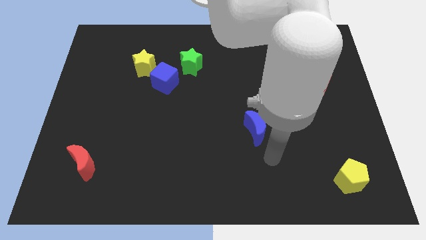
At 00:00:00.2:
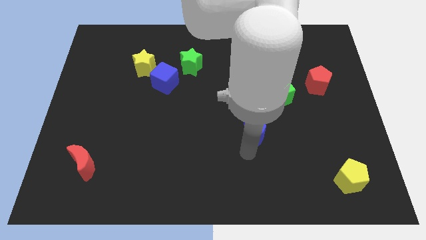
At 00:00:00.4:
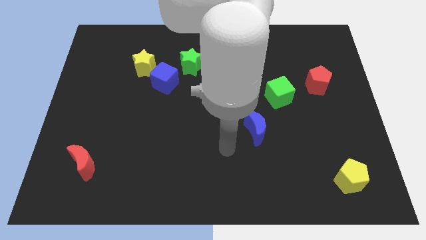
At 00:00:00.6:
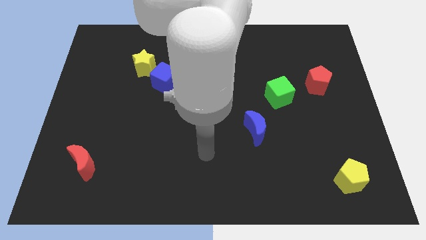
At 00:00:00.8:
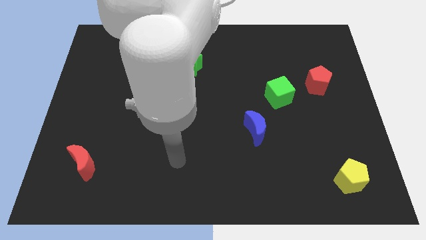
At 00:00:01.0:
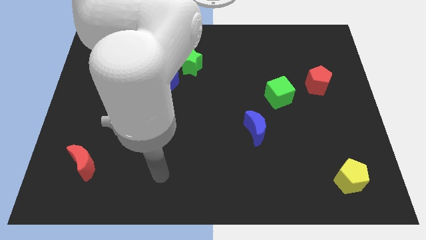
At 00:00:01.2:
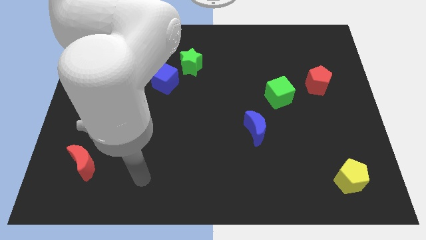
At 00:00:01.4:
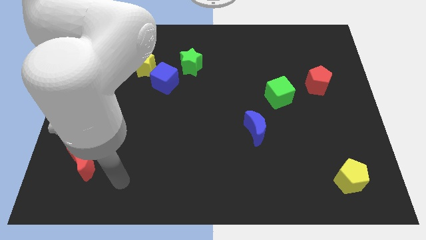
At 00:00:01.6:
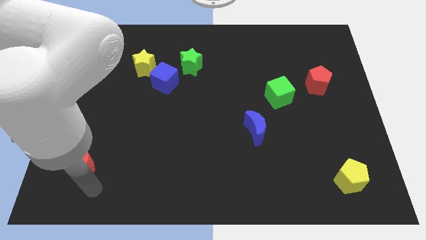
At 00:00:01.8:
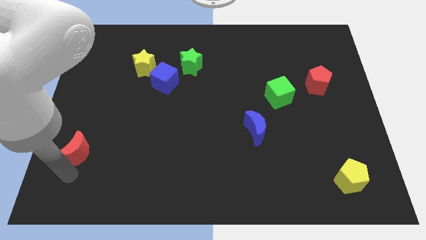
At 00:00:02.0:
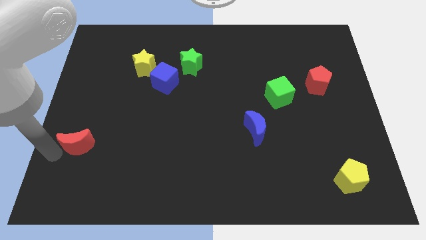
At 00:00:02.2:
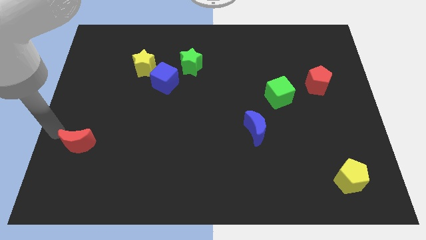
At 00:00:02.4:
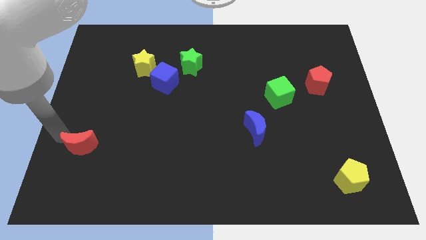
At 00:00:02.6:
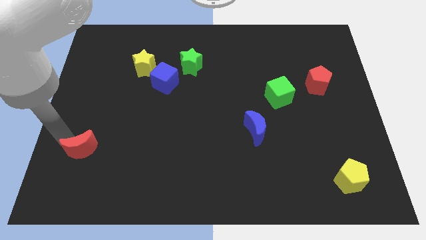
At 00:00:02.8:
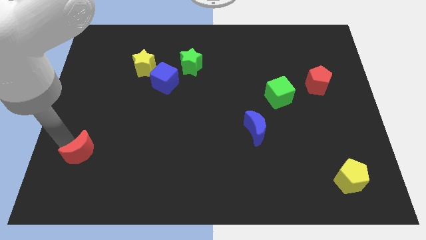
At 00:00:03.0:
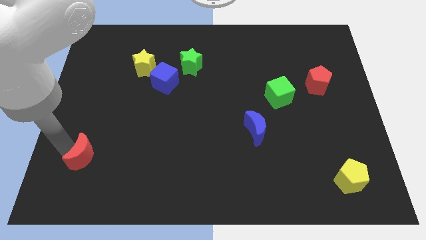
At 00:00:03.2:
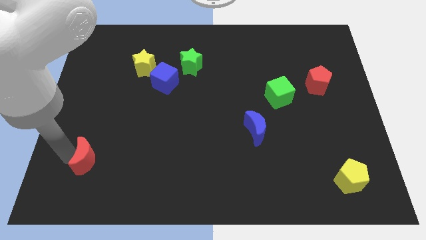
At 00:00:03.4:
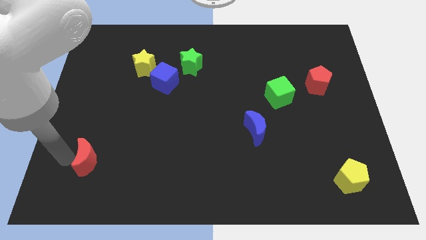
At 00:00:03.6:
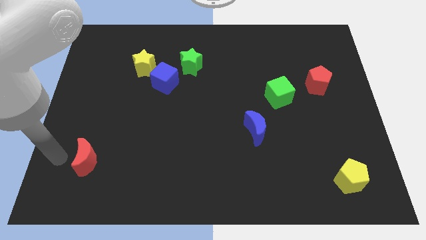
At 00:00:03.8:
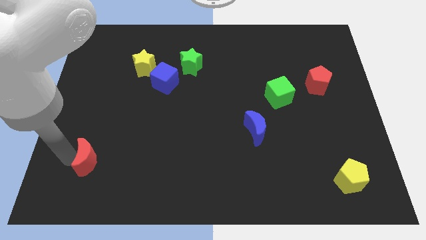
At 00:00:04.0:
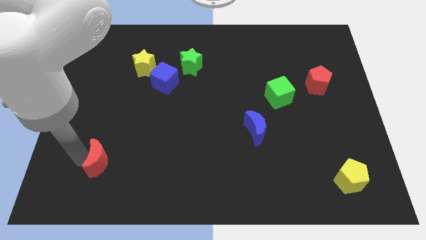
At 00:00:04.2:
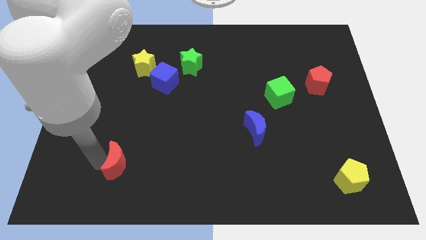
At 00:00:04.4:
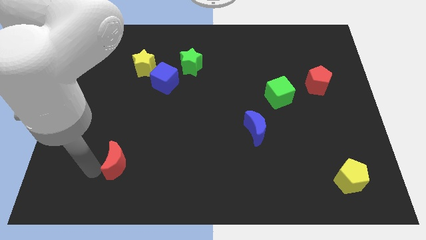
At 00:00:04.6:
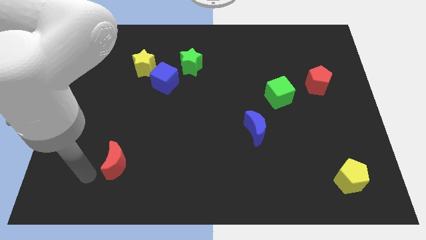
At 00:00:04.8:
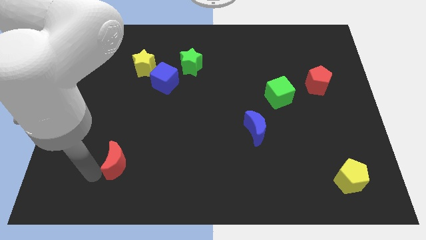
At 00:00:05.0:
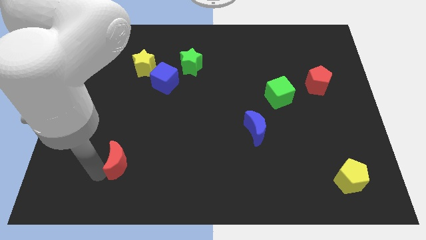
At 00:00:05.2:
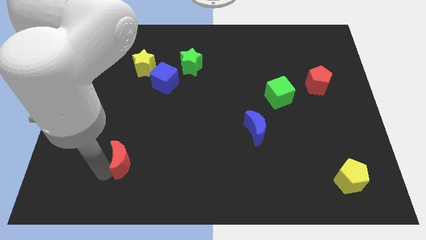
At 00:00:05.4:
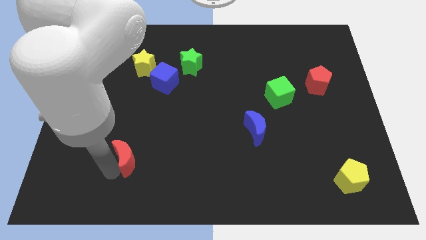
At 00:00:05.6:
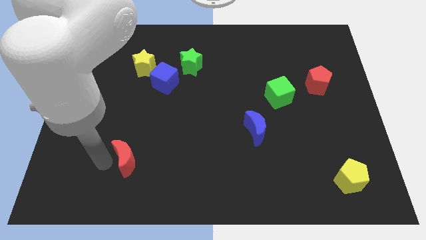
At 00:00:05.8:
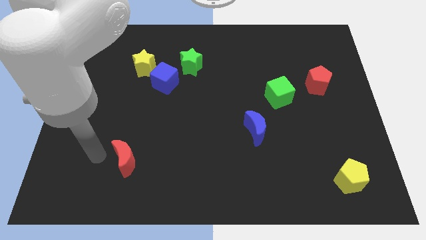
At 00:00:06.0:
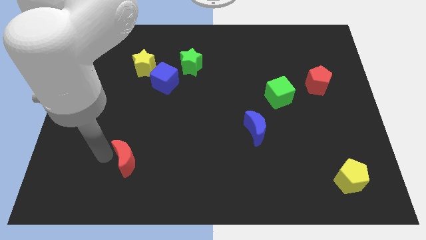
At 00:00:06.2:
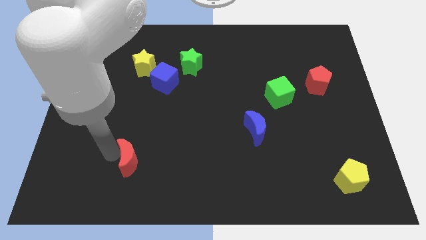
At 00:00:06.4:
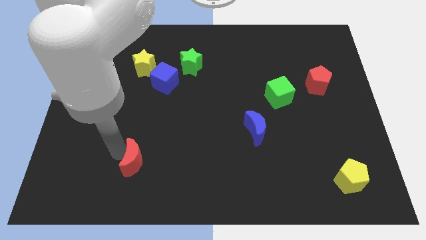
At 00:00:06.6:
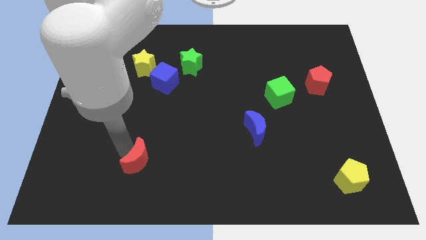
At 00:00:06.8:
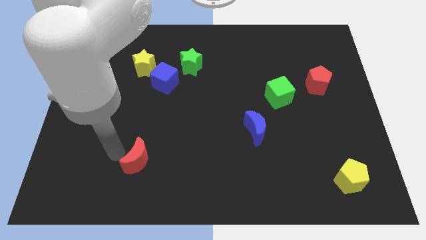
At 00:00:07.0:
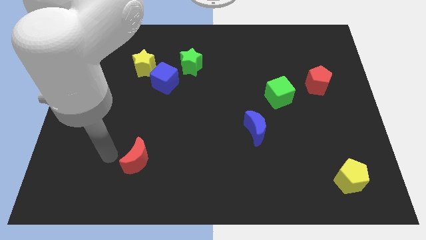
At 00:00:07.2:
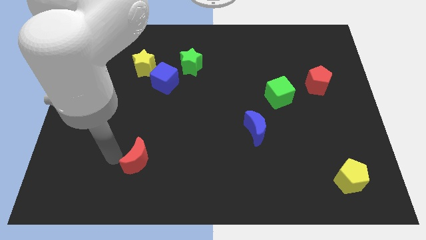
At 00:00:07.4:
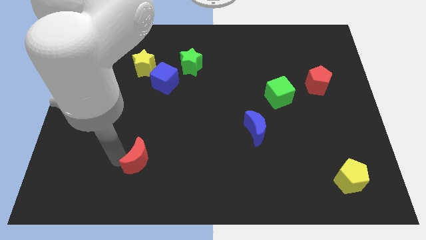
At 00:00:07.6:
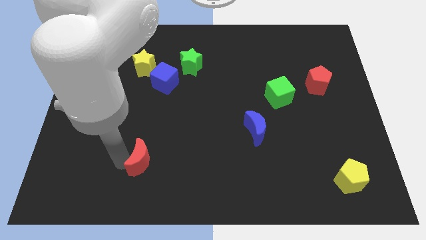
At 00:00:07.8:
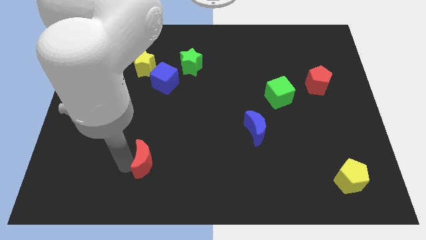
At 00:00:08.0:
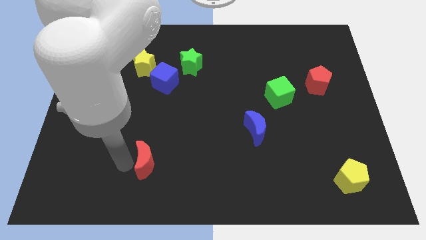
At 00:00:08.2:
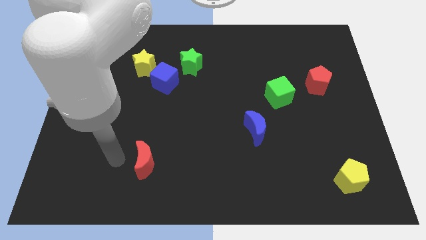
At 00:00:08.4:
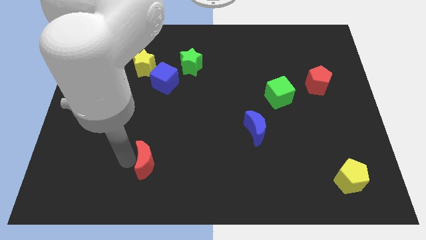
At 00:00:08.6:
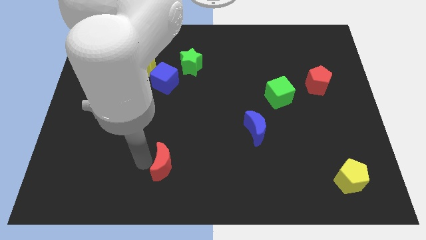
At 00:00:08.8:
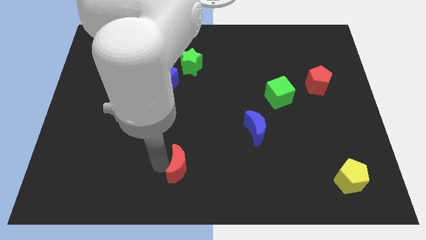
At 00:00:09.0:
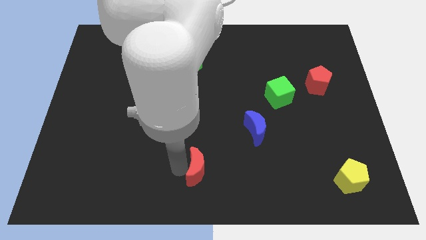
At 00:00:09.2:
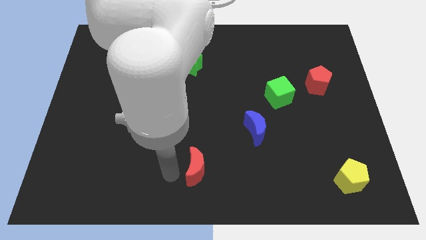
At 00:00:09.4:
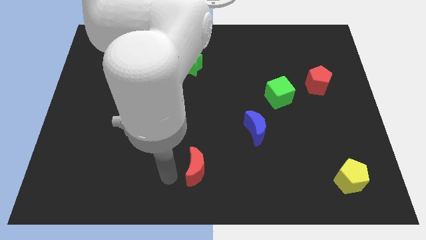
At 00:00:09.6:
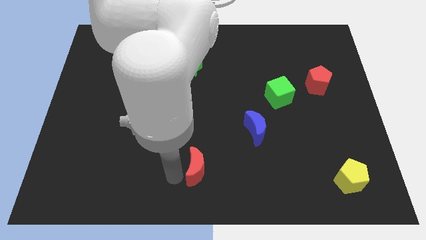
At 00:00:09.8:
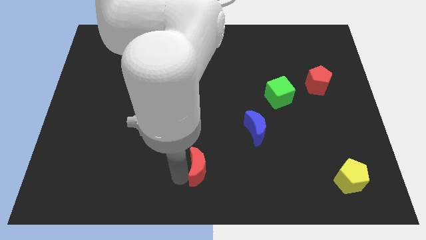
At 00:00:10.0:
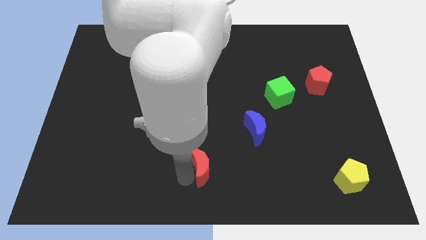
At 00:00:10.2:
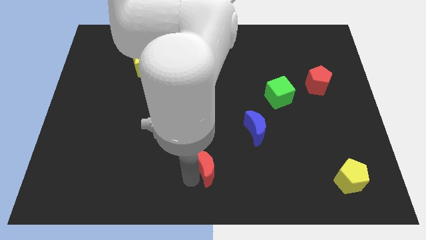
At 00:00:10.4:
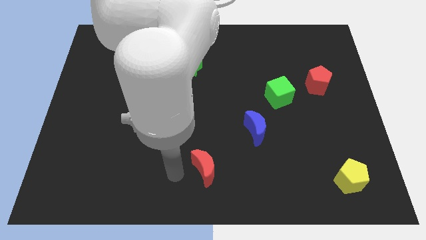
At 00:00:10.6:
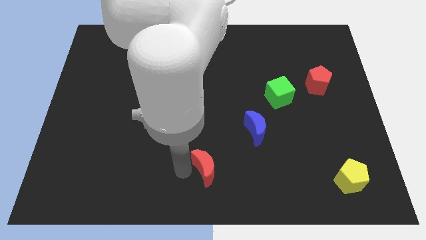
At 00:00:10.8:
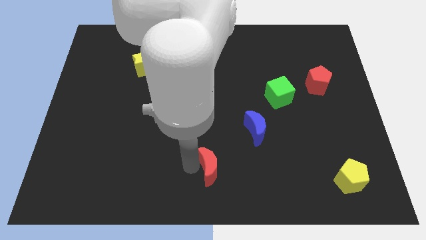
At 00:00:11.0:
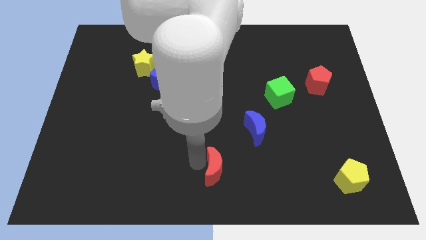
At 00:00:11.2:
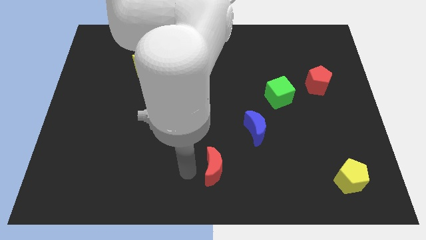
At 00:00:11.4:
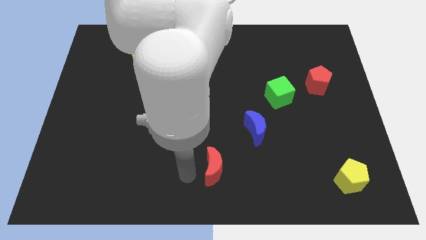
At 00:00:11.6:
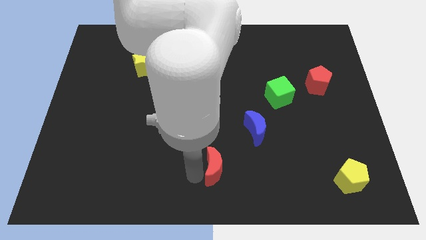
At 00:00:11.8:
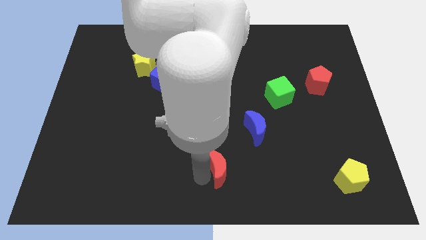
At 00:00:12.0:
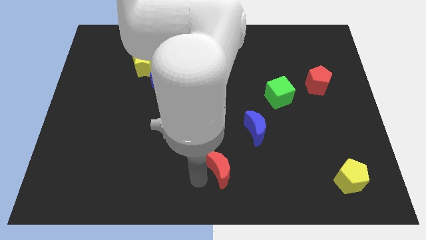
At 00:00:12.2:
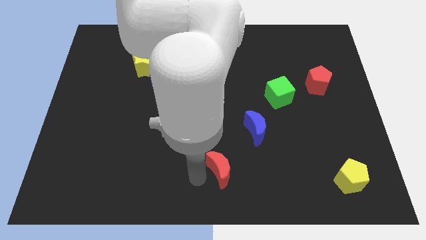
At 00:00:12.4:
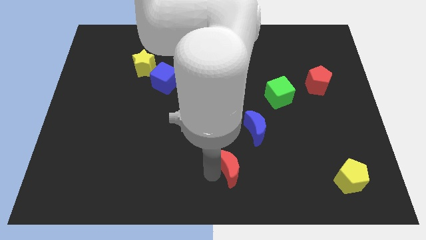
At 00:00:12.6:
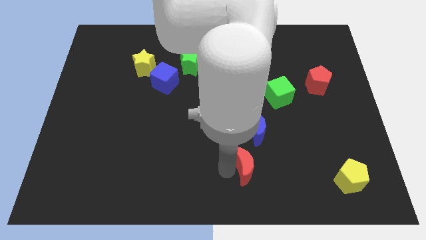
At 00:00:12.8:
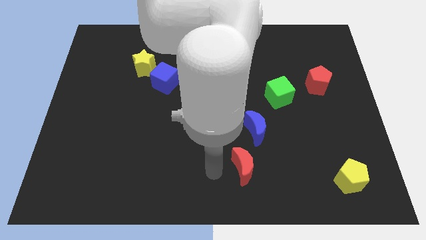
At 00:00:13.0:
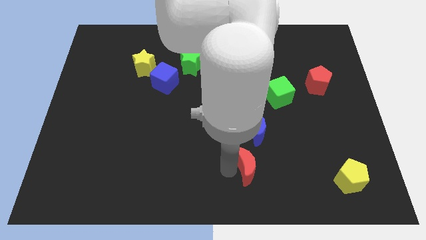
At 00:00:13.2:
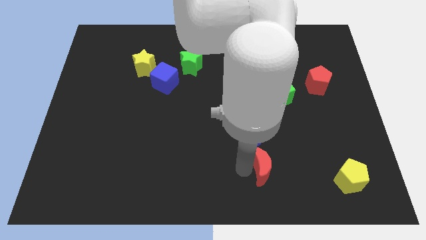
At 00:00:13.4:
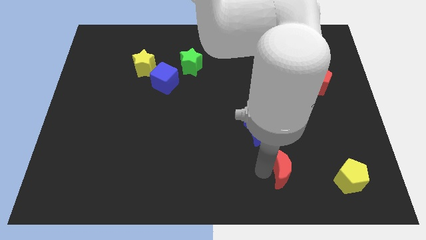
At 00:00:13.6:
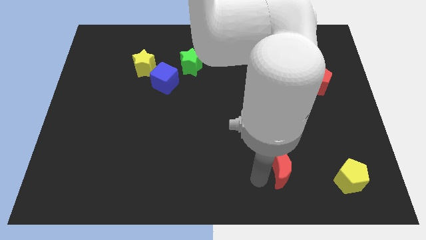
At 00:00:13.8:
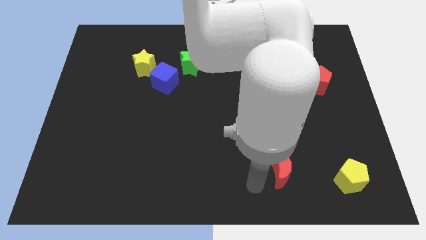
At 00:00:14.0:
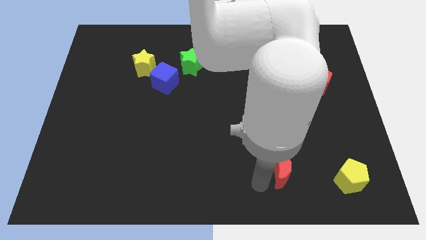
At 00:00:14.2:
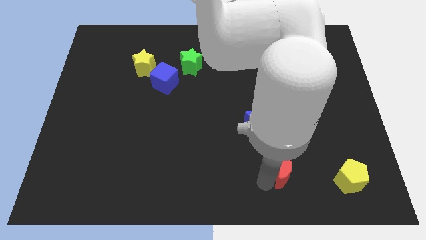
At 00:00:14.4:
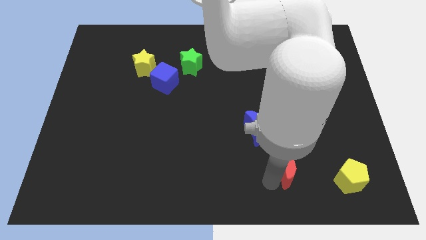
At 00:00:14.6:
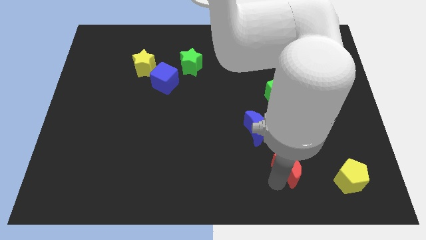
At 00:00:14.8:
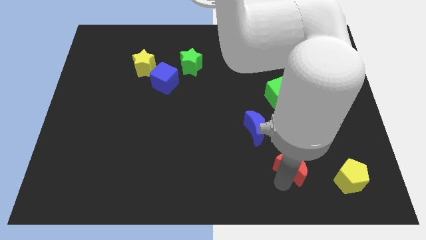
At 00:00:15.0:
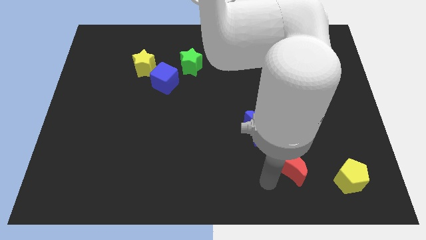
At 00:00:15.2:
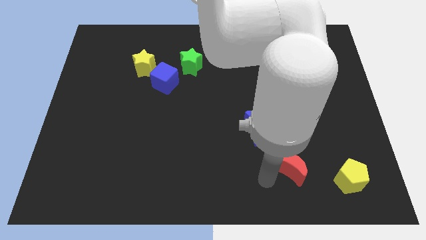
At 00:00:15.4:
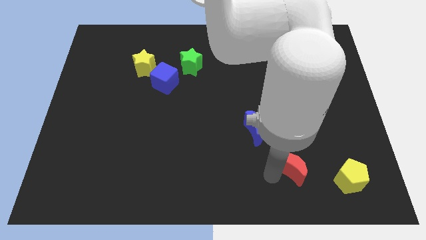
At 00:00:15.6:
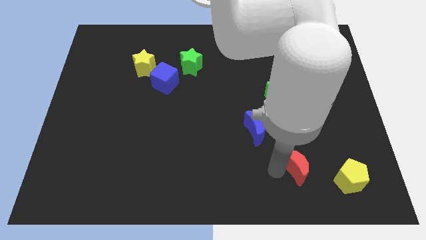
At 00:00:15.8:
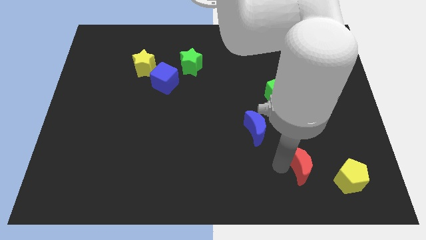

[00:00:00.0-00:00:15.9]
move the red moon diagonally up and to the left of the yellow pentagon
